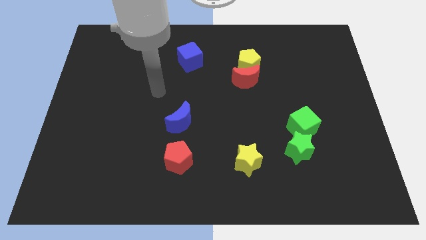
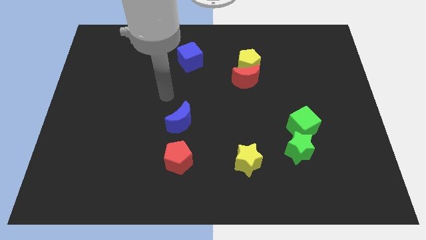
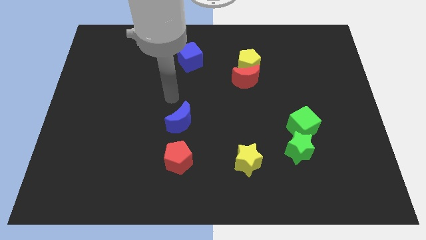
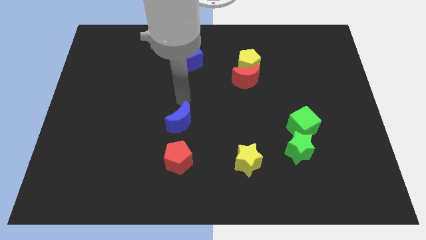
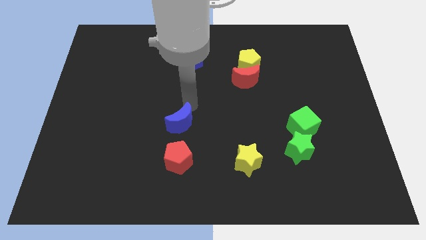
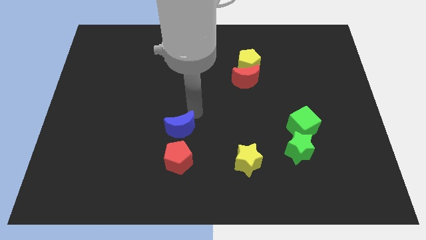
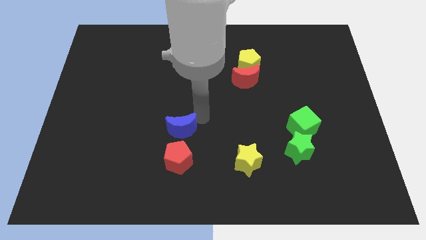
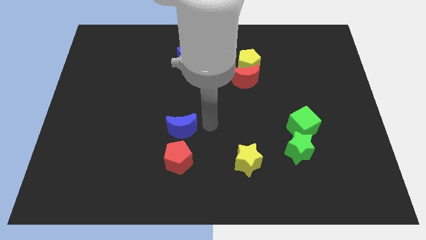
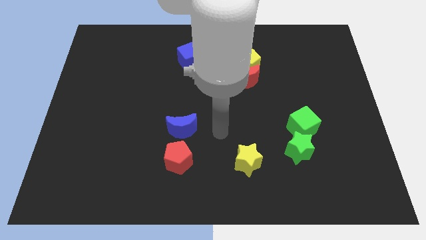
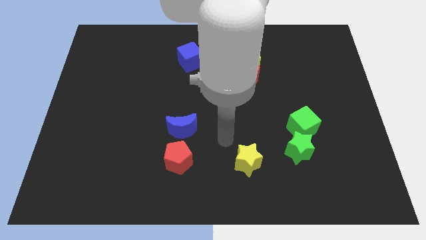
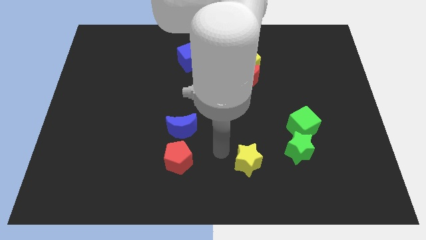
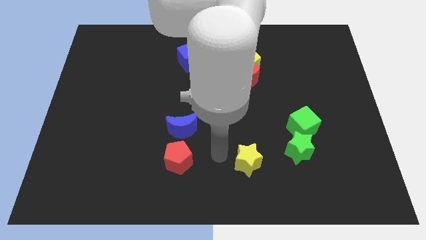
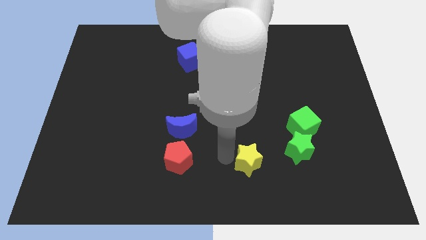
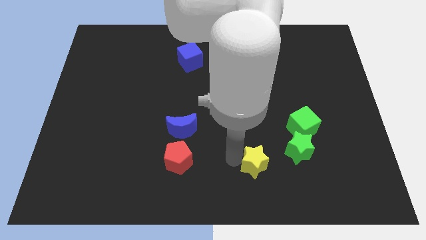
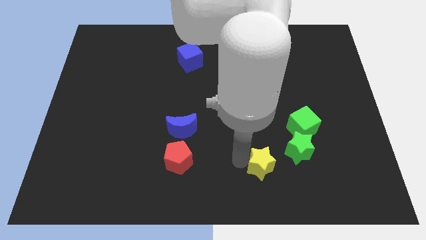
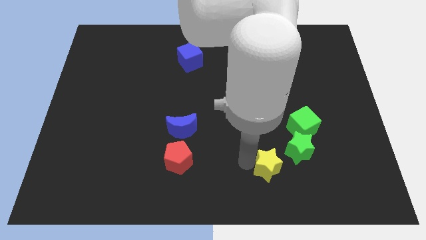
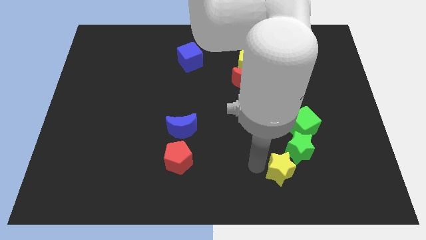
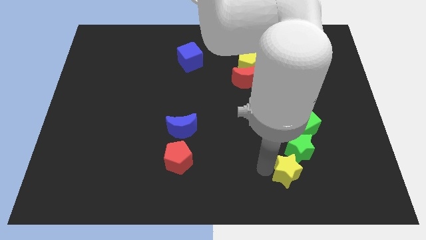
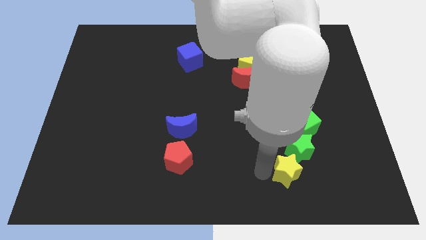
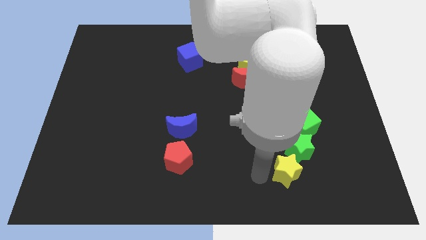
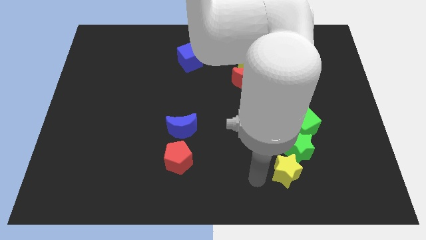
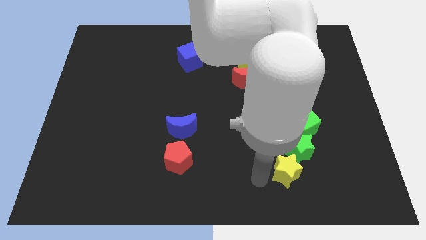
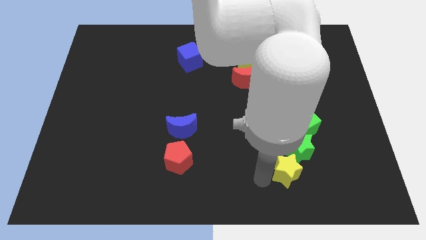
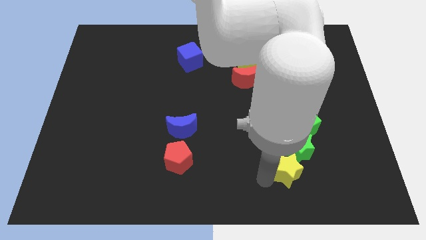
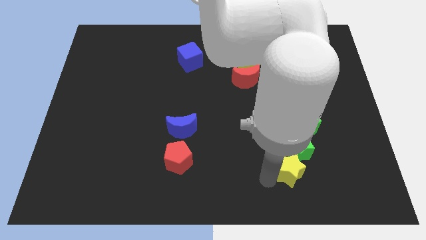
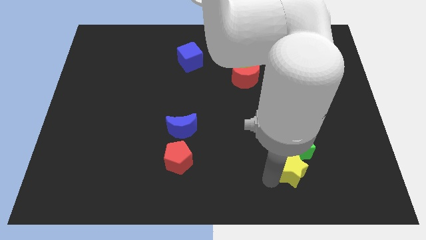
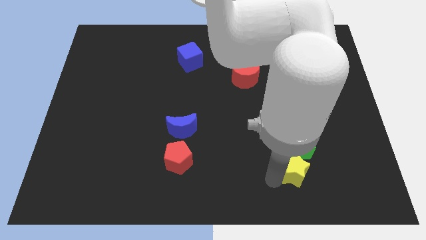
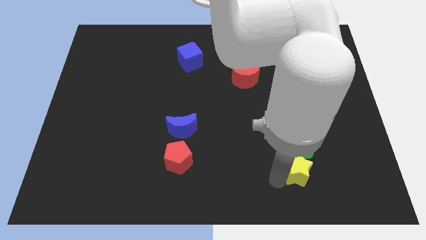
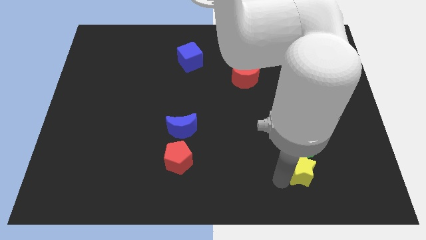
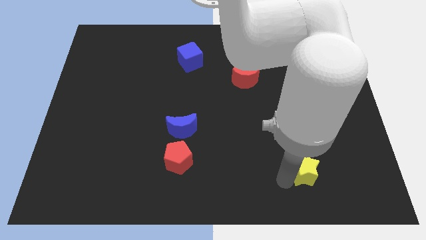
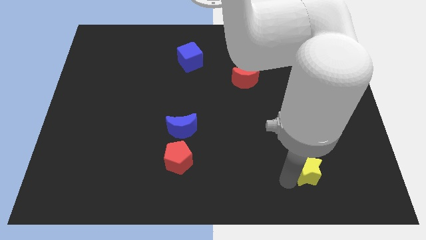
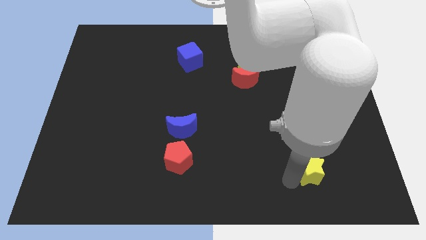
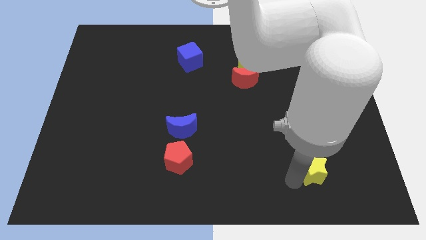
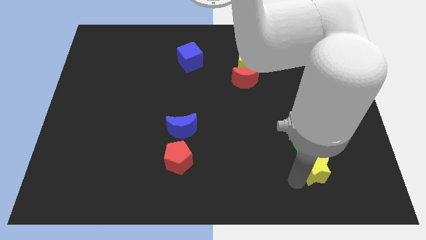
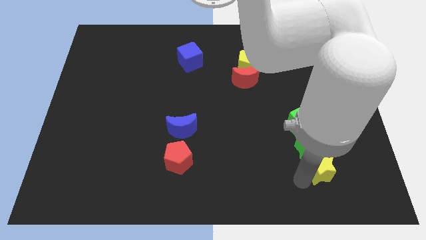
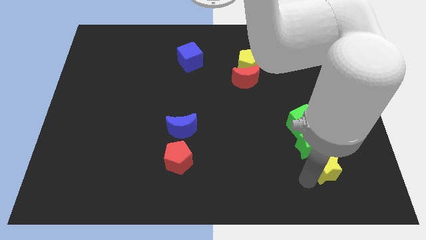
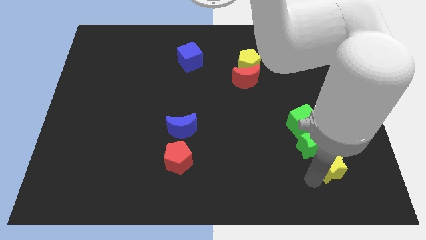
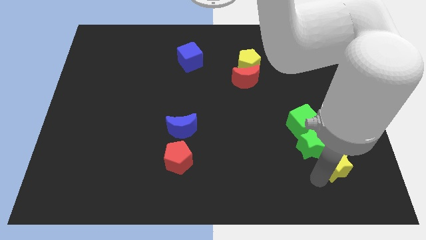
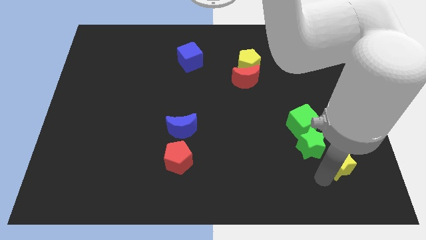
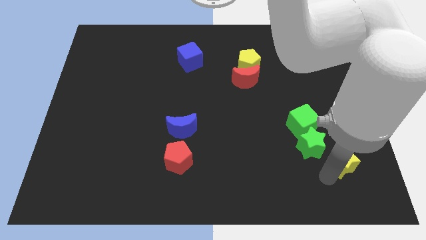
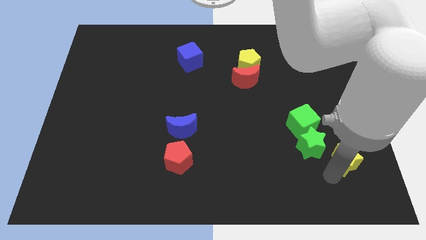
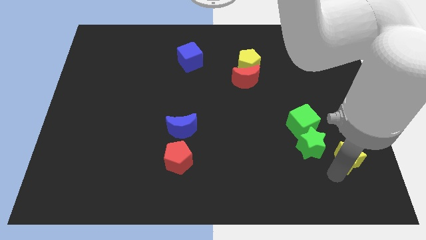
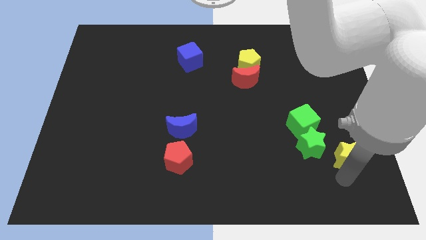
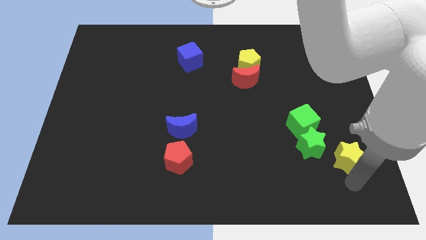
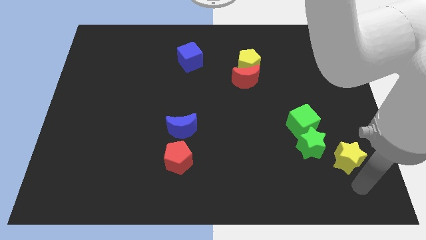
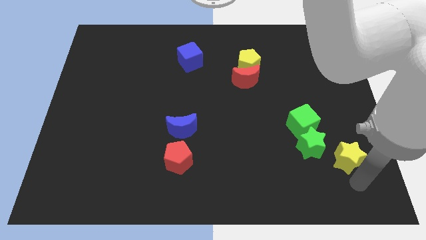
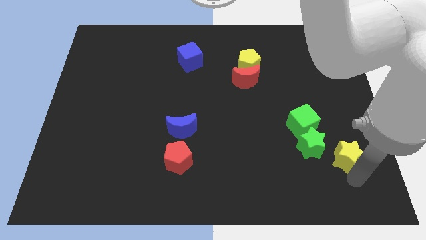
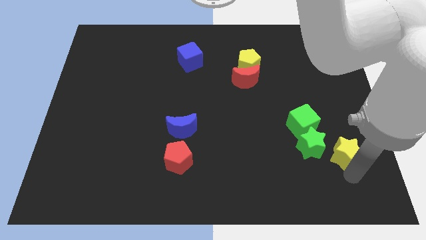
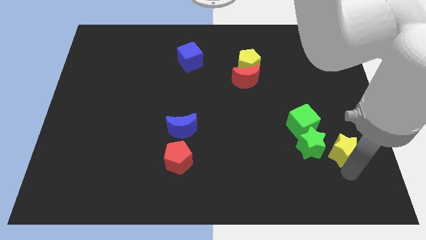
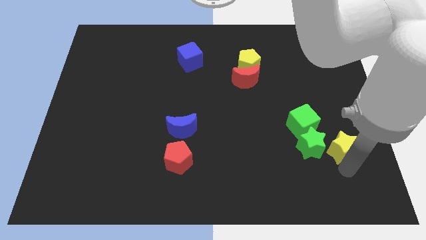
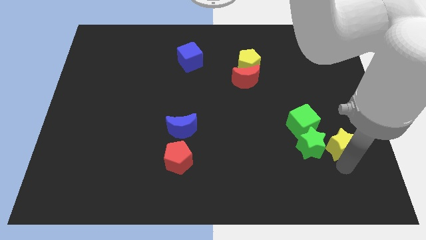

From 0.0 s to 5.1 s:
put the yellow star to the top right side of the green star

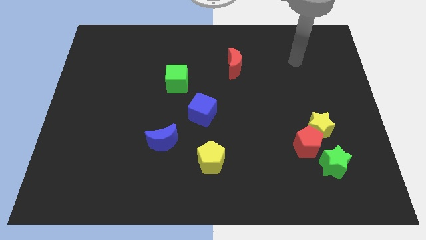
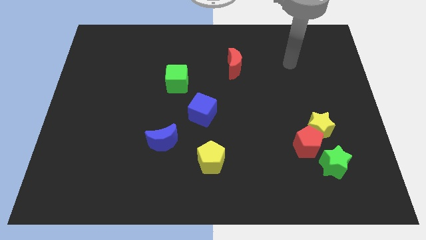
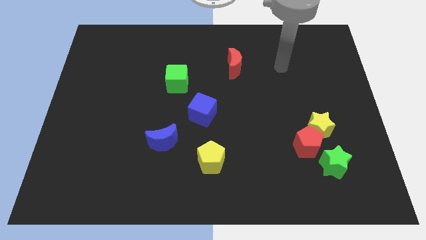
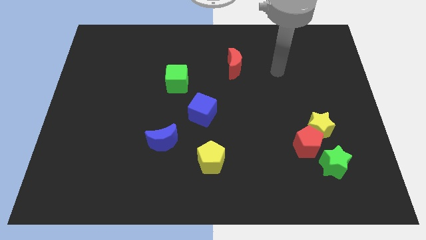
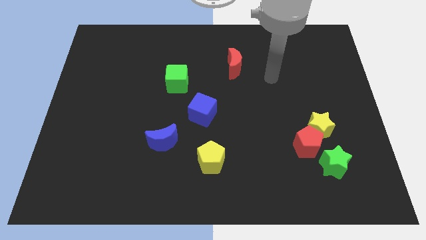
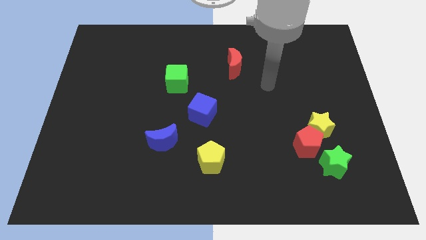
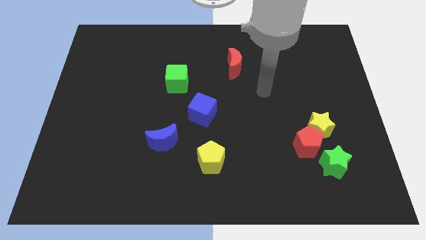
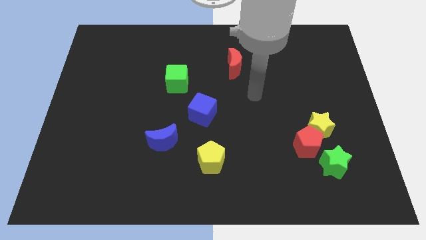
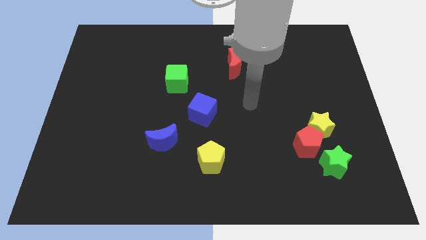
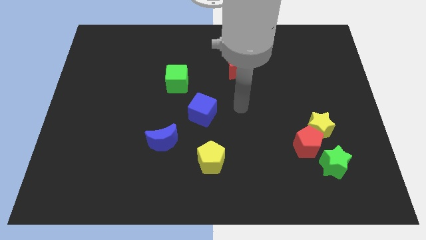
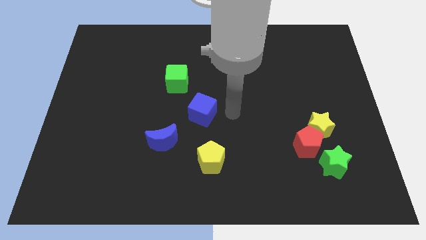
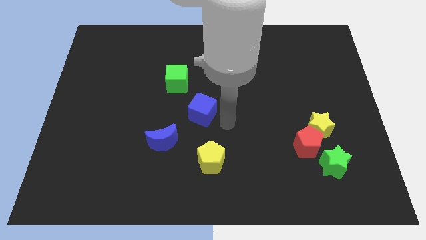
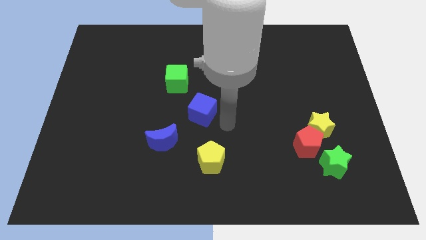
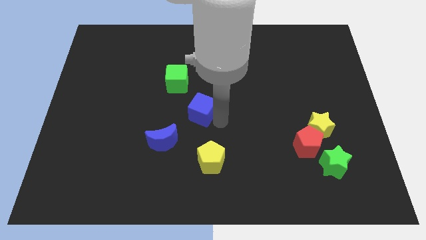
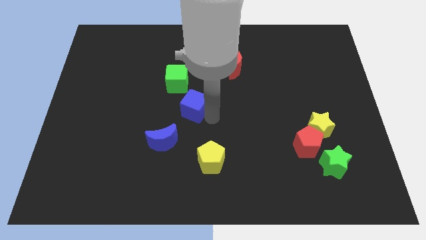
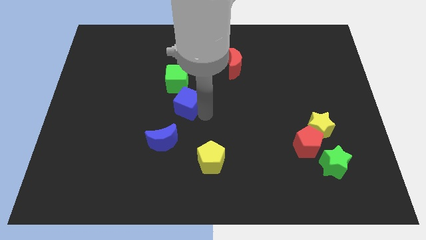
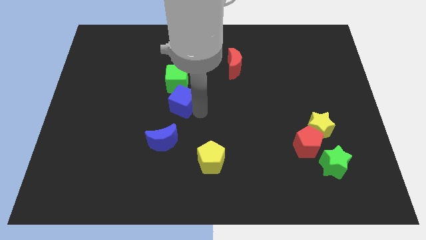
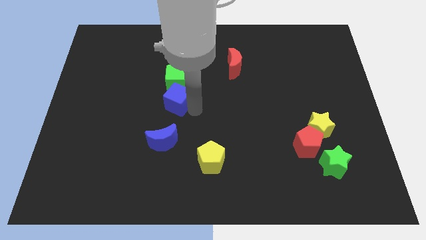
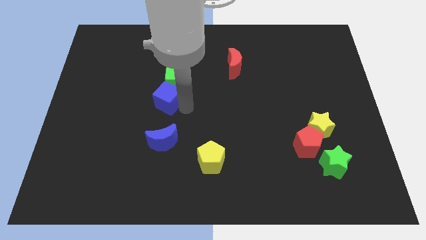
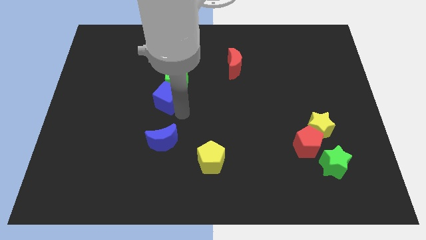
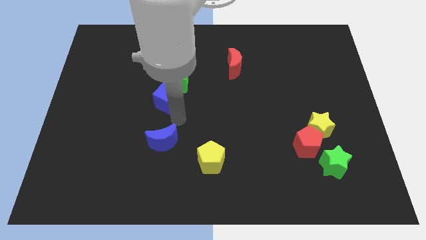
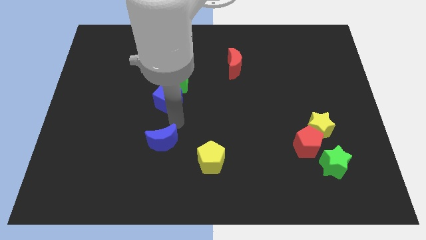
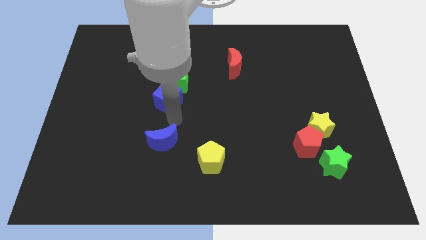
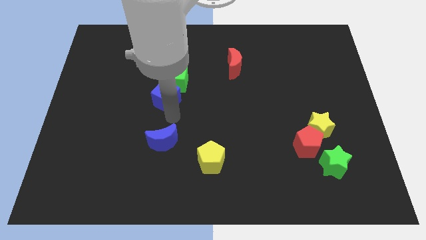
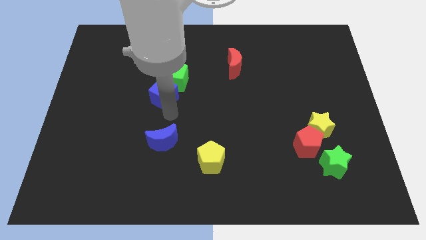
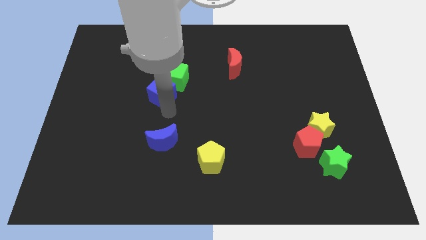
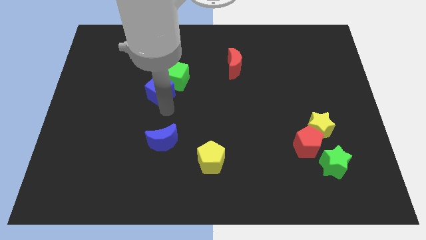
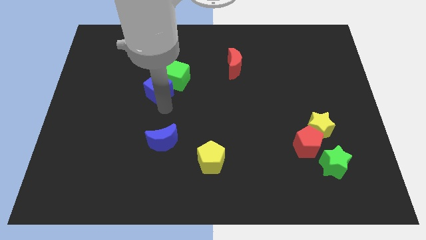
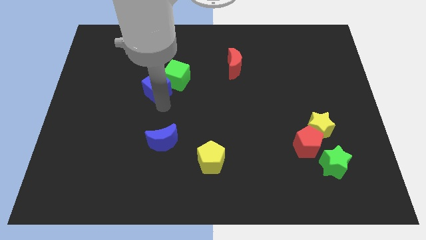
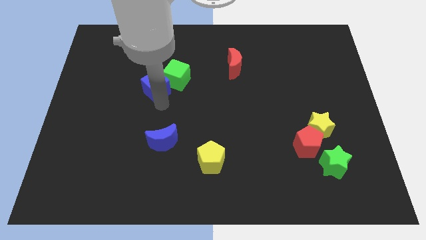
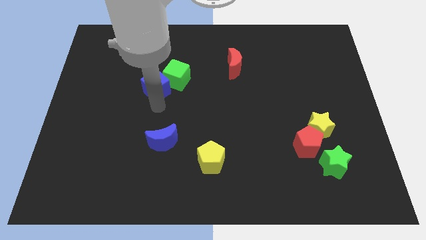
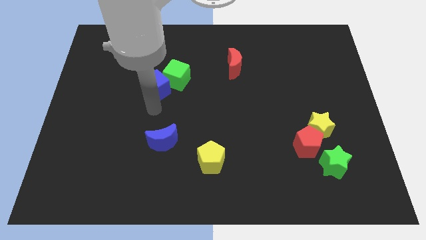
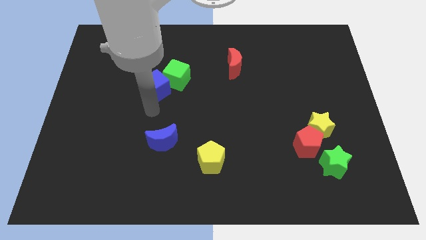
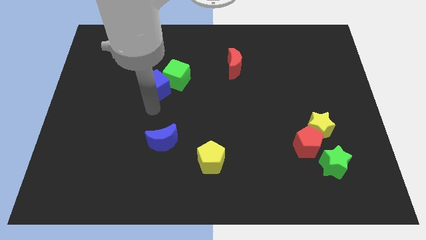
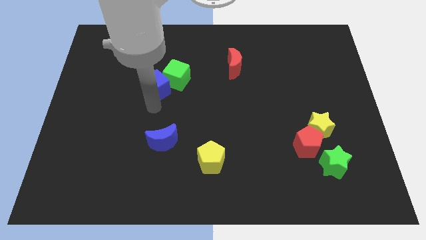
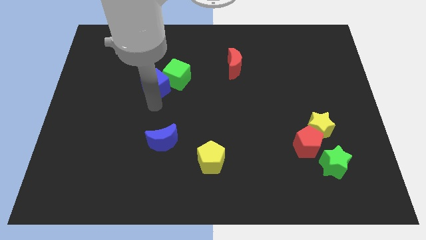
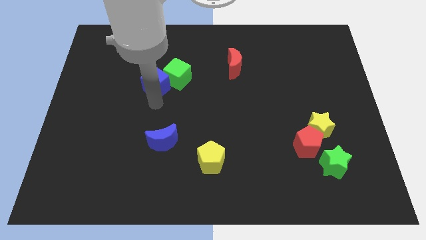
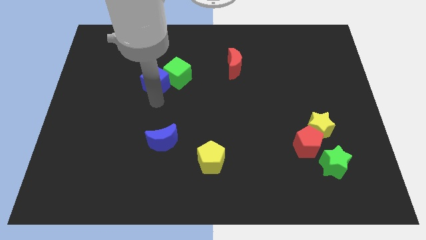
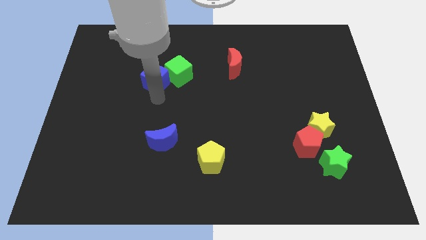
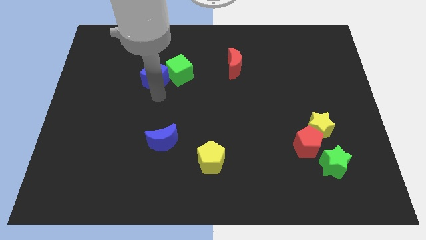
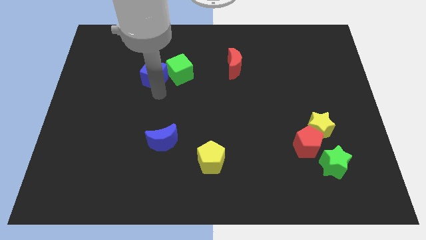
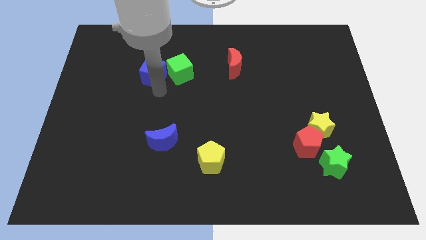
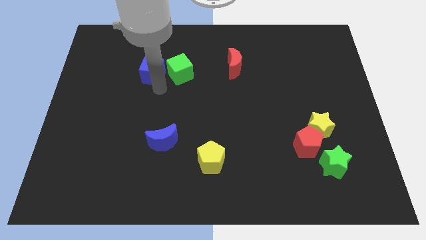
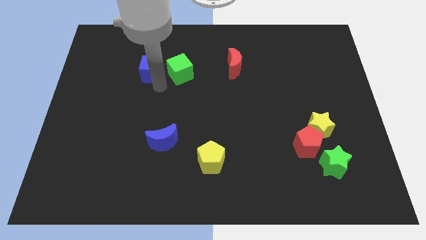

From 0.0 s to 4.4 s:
move the blue cube to the top left of the green cube
